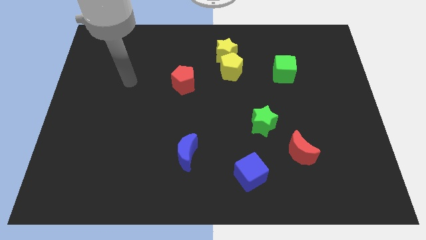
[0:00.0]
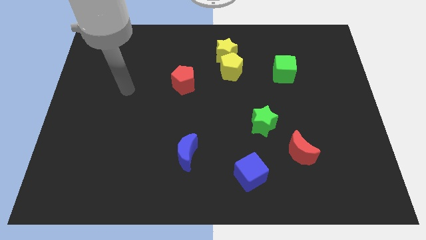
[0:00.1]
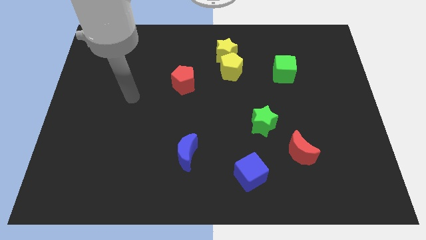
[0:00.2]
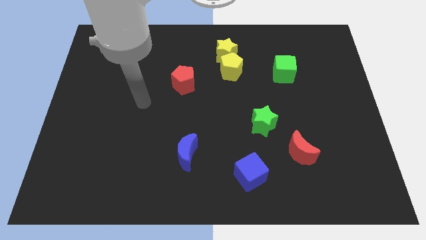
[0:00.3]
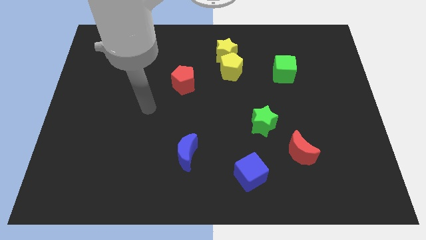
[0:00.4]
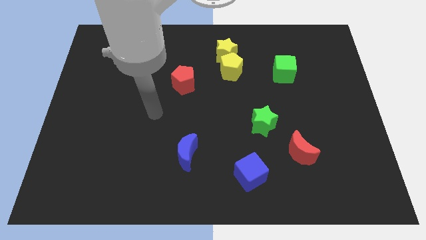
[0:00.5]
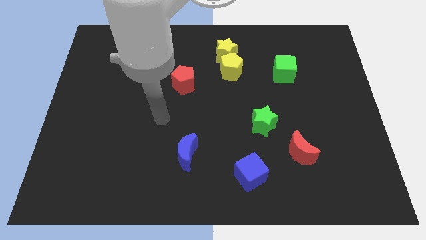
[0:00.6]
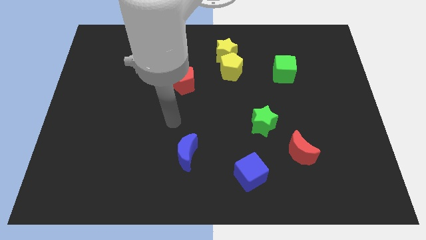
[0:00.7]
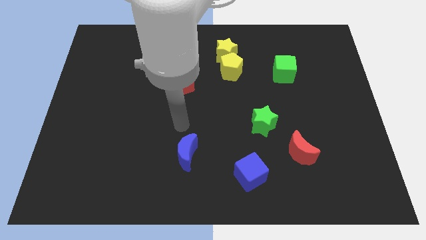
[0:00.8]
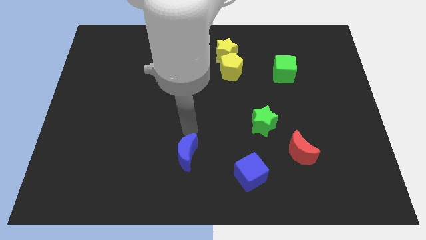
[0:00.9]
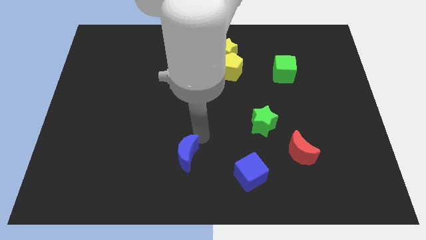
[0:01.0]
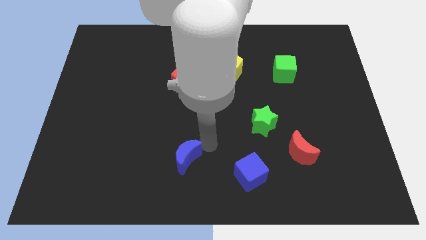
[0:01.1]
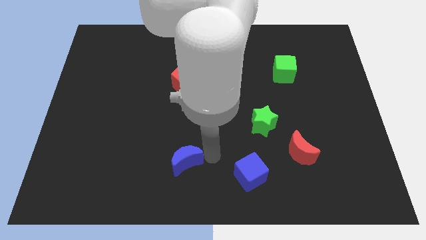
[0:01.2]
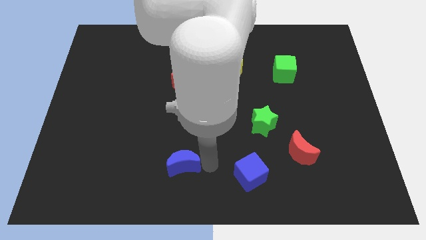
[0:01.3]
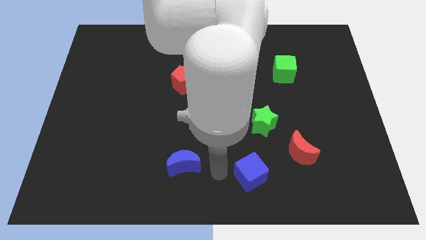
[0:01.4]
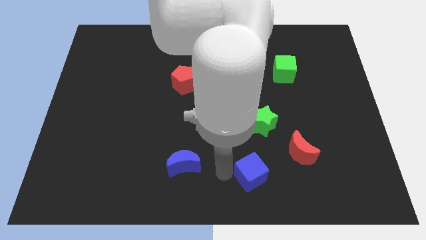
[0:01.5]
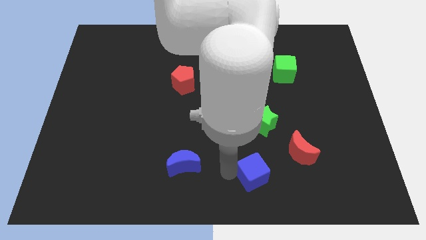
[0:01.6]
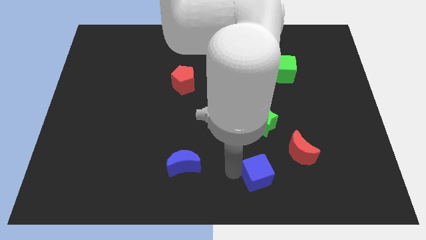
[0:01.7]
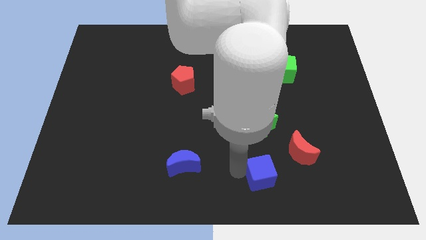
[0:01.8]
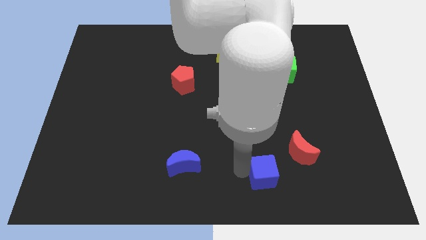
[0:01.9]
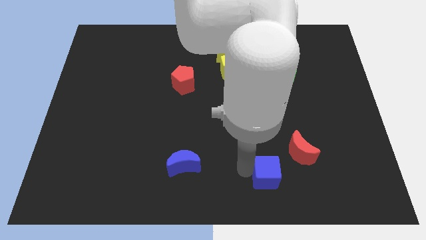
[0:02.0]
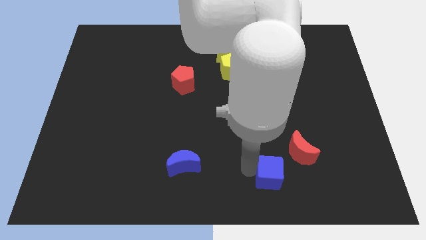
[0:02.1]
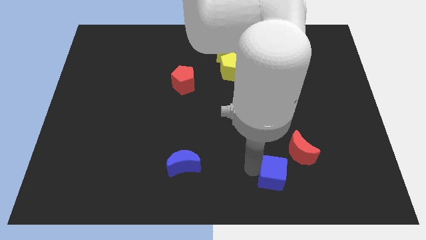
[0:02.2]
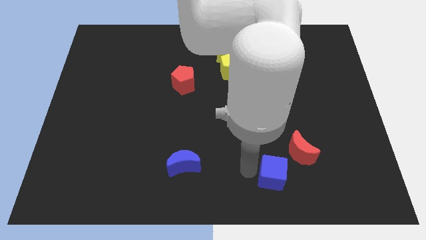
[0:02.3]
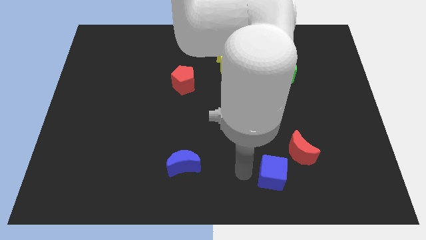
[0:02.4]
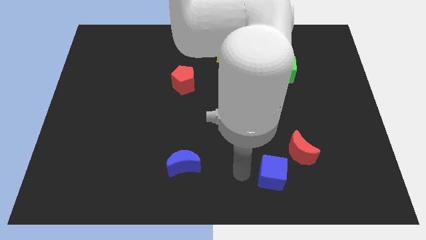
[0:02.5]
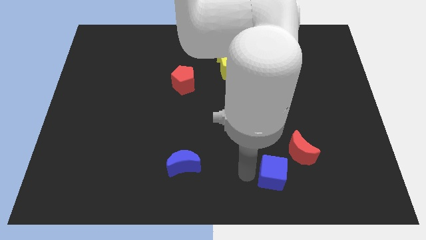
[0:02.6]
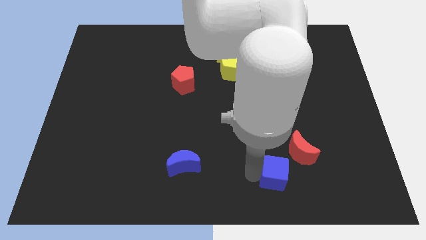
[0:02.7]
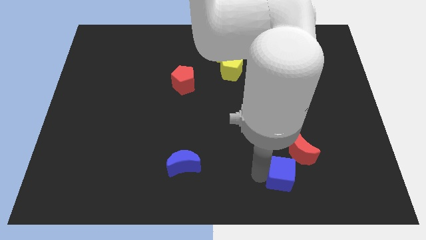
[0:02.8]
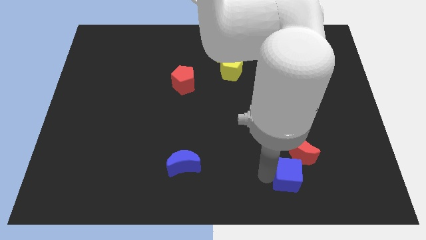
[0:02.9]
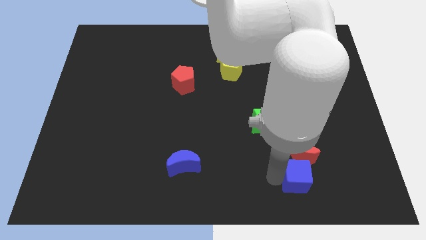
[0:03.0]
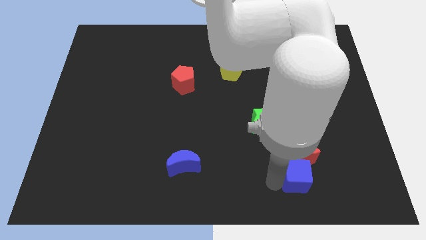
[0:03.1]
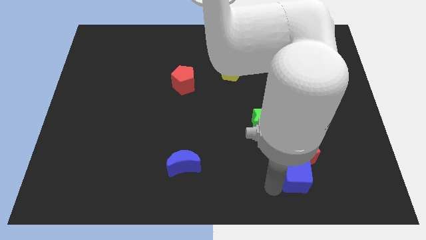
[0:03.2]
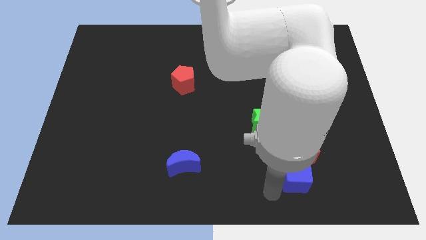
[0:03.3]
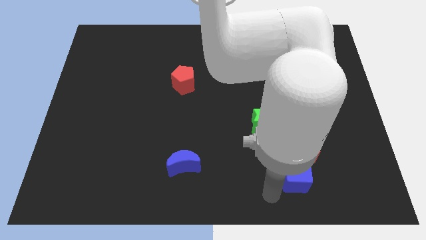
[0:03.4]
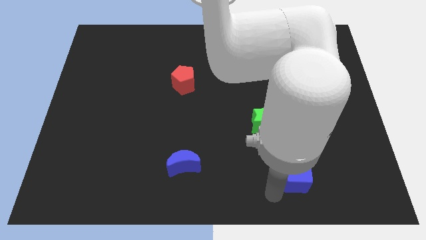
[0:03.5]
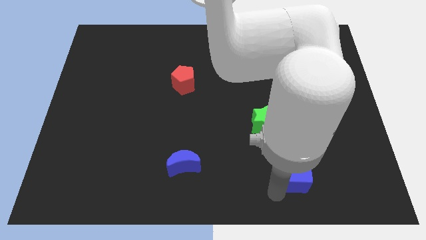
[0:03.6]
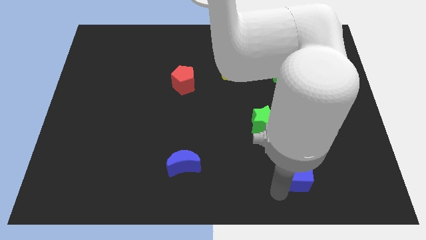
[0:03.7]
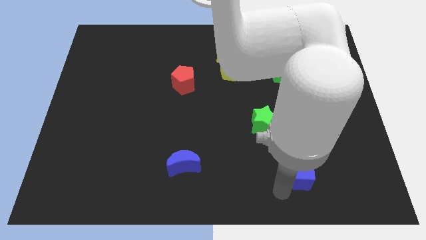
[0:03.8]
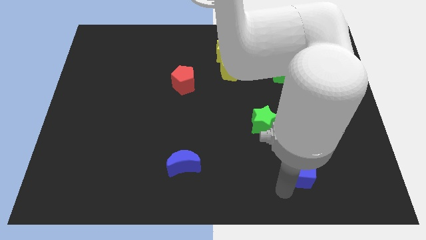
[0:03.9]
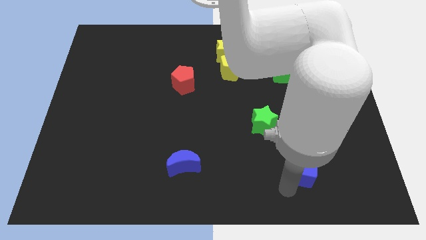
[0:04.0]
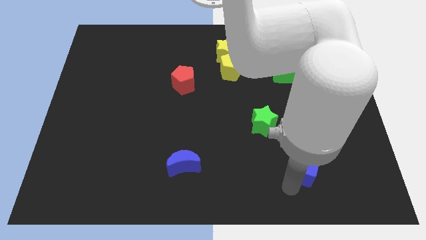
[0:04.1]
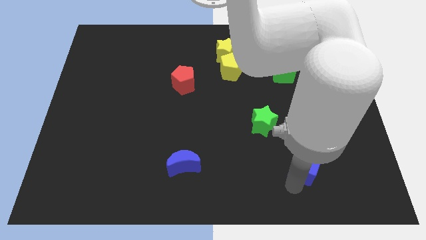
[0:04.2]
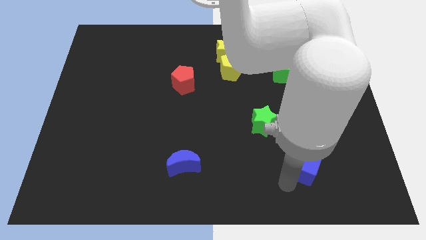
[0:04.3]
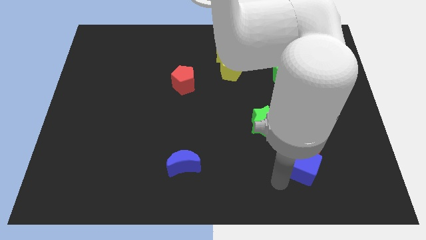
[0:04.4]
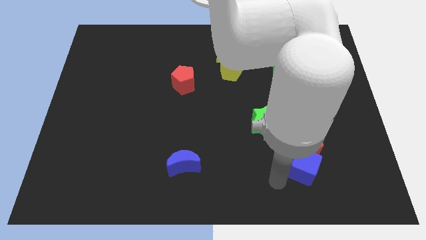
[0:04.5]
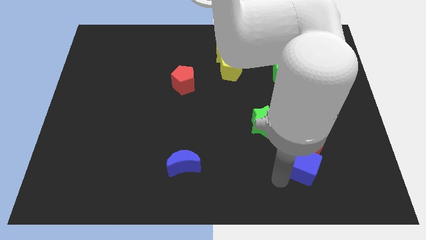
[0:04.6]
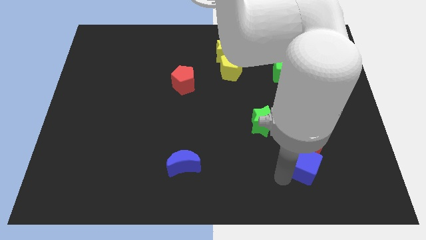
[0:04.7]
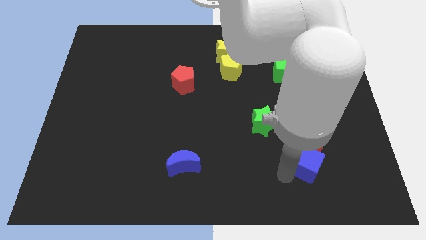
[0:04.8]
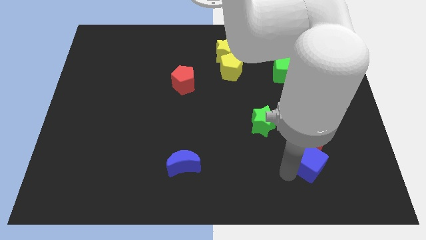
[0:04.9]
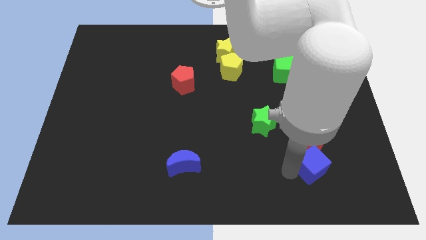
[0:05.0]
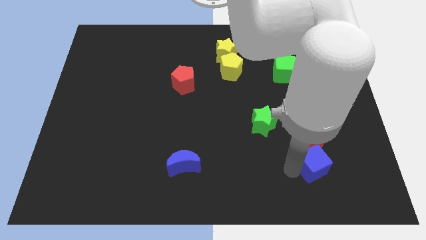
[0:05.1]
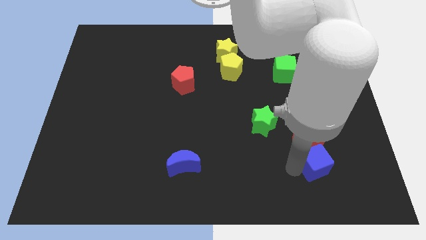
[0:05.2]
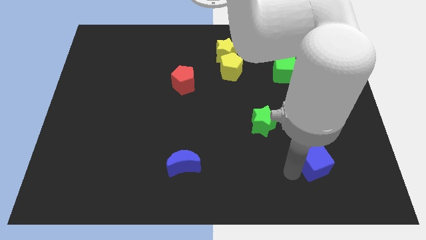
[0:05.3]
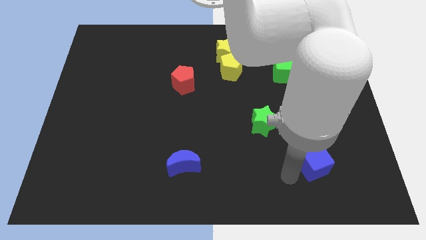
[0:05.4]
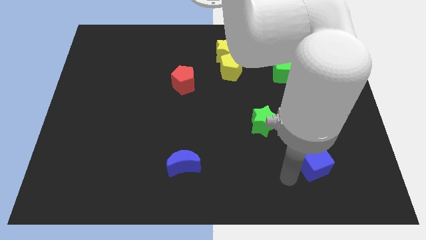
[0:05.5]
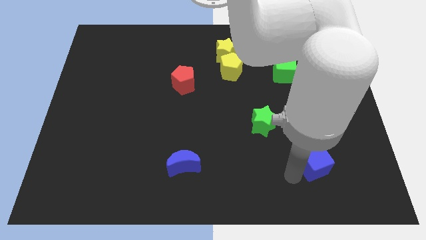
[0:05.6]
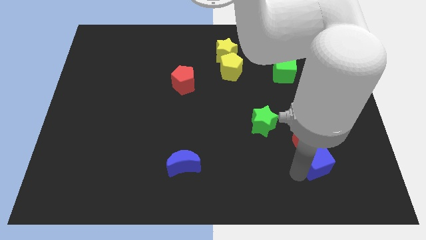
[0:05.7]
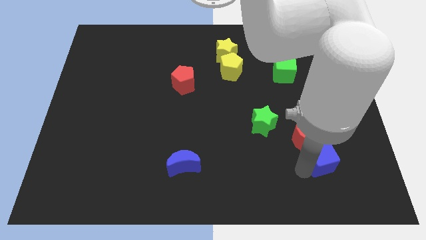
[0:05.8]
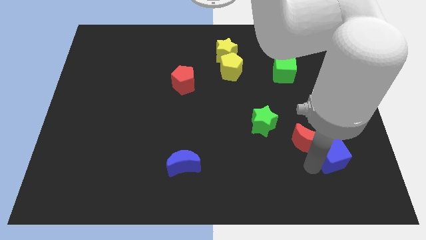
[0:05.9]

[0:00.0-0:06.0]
move the blue cube to the right side of the red moon

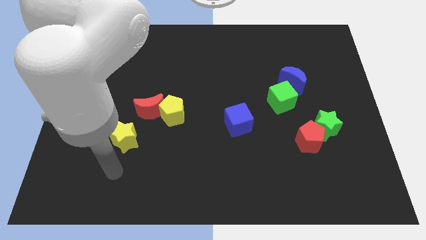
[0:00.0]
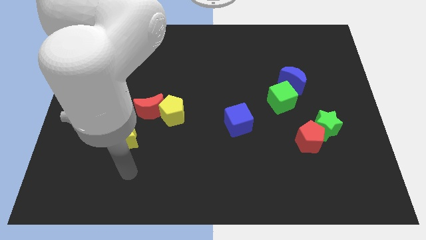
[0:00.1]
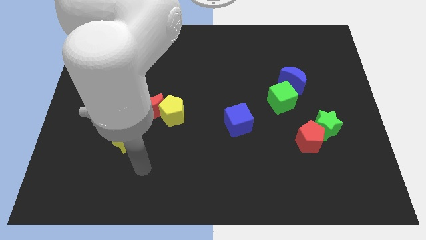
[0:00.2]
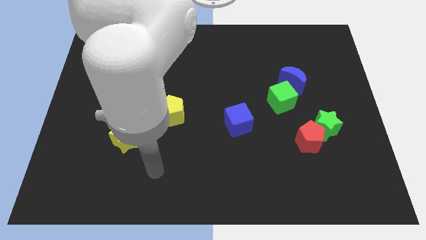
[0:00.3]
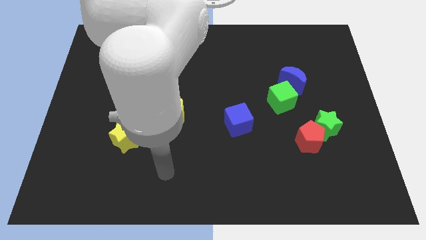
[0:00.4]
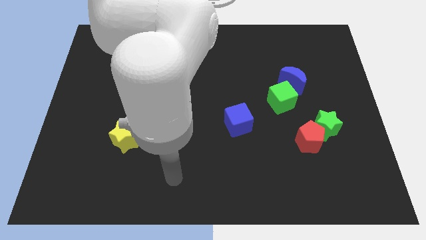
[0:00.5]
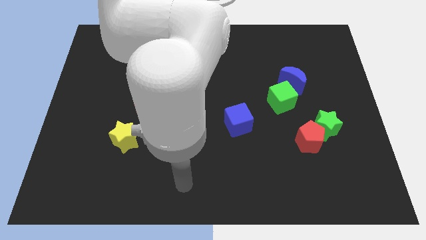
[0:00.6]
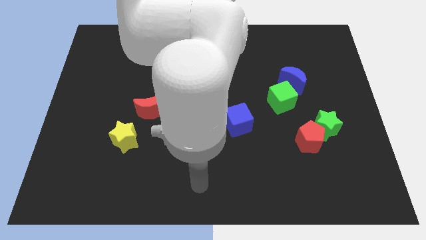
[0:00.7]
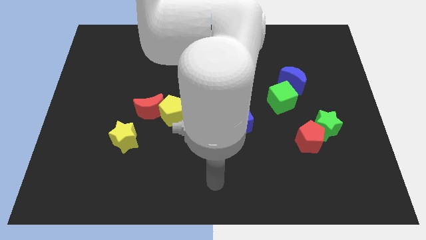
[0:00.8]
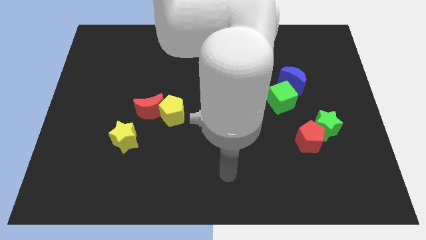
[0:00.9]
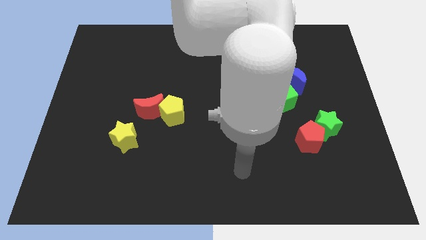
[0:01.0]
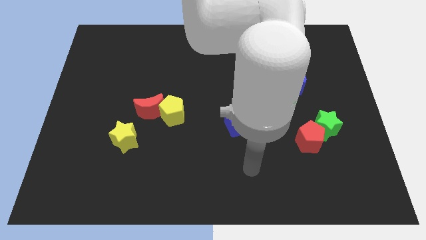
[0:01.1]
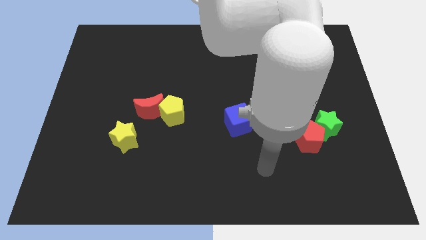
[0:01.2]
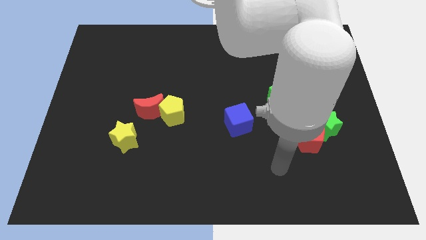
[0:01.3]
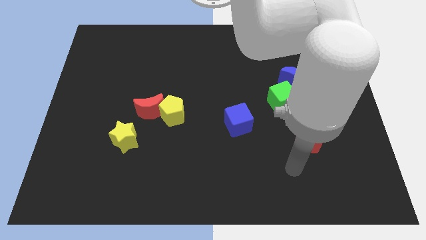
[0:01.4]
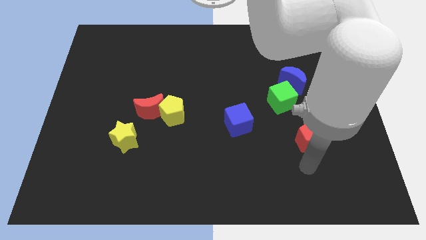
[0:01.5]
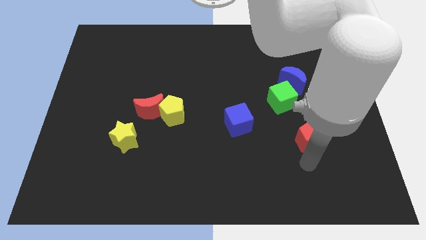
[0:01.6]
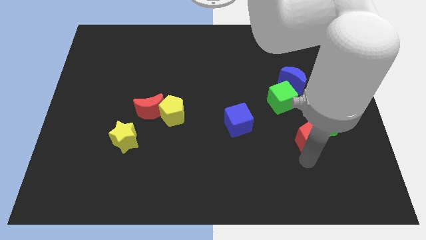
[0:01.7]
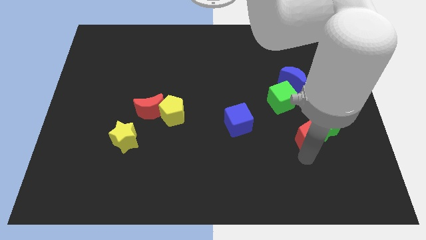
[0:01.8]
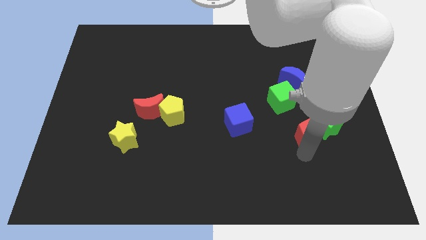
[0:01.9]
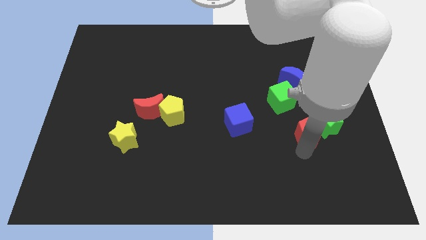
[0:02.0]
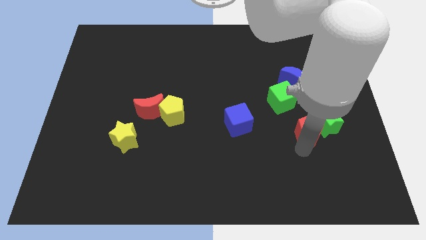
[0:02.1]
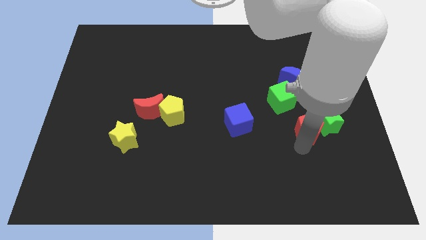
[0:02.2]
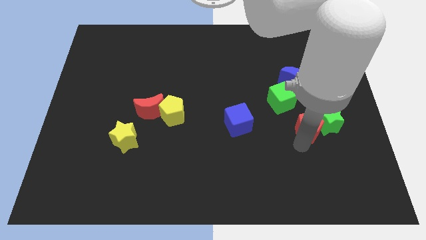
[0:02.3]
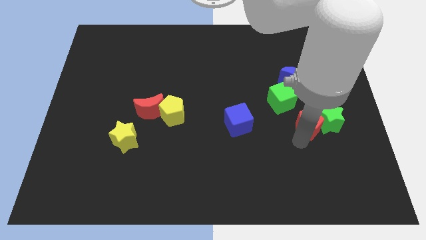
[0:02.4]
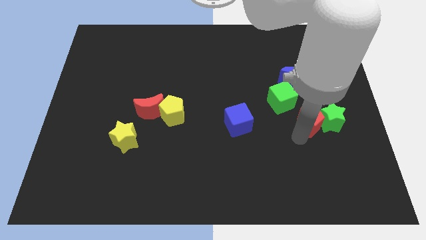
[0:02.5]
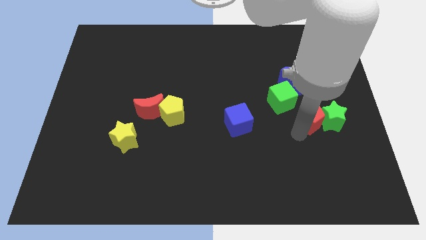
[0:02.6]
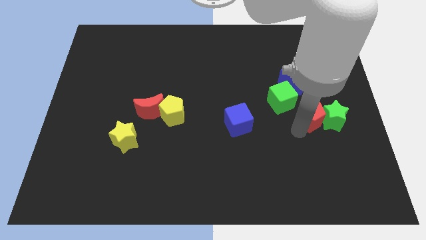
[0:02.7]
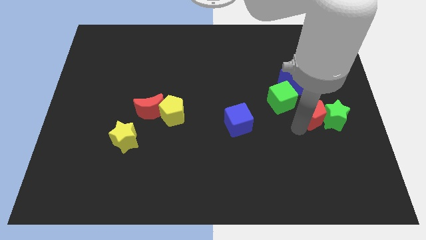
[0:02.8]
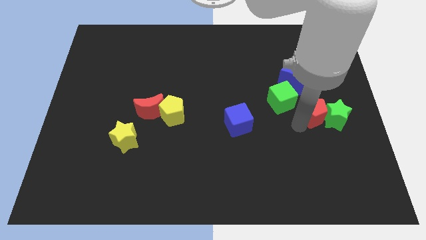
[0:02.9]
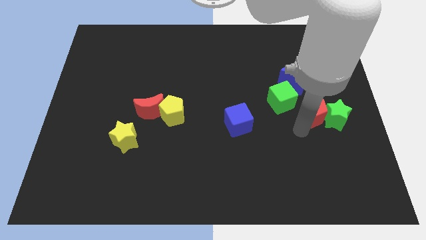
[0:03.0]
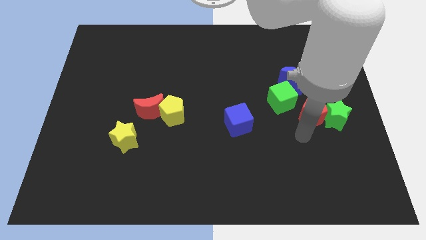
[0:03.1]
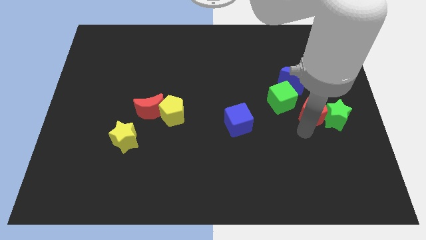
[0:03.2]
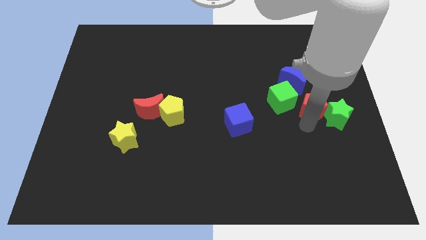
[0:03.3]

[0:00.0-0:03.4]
push the red pentagon to the bottom right side of the blue moon
